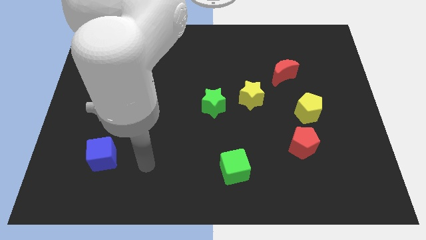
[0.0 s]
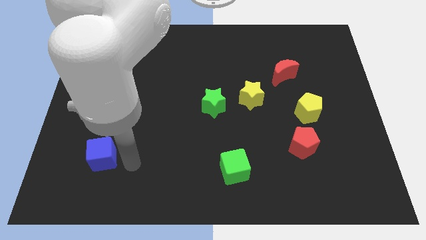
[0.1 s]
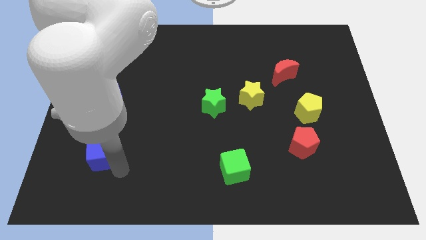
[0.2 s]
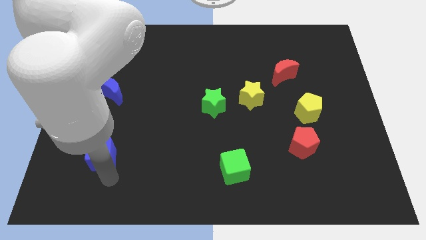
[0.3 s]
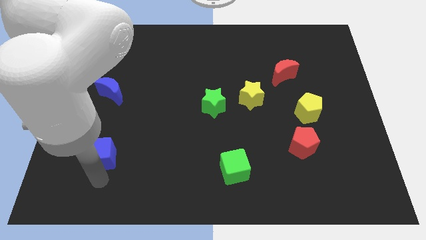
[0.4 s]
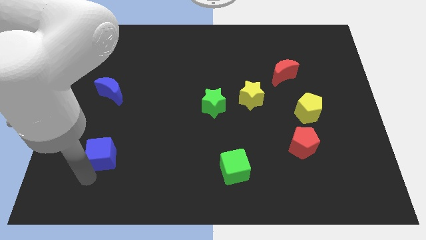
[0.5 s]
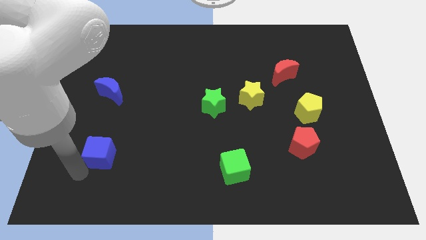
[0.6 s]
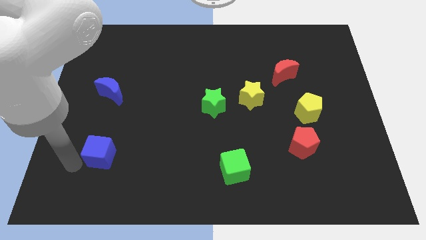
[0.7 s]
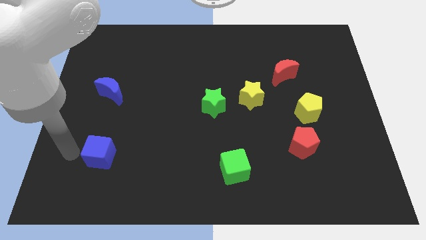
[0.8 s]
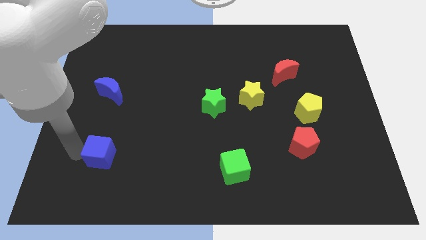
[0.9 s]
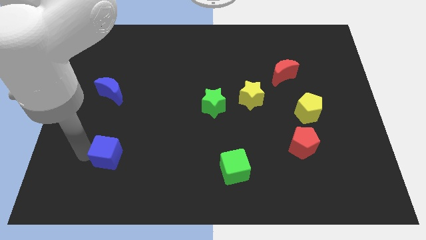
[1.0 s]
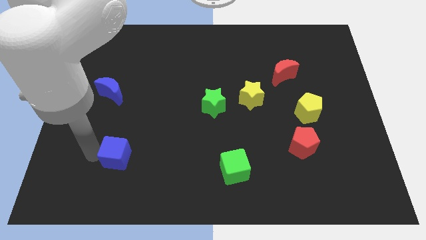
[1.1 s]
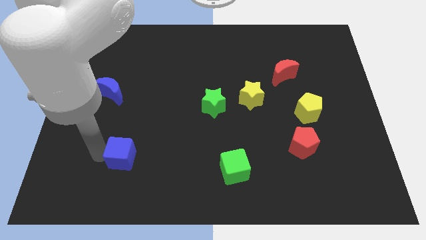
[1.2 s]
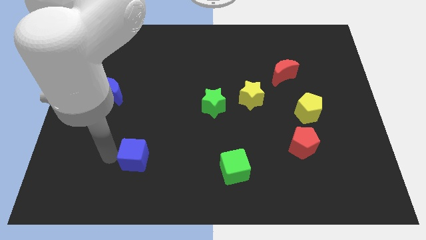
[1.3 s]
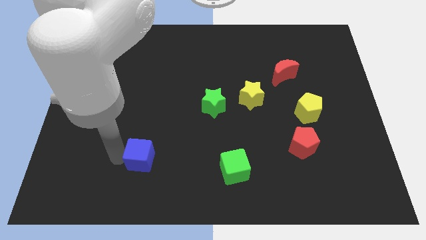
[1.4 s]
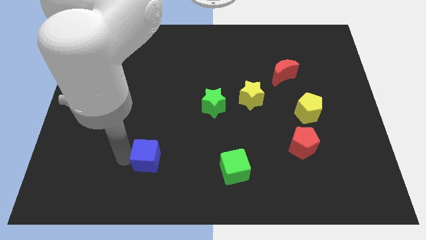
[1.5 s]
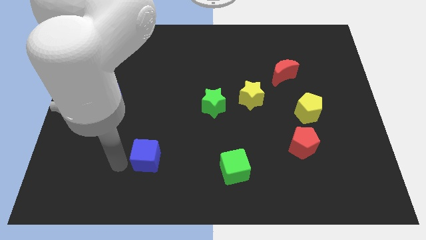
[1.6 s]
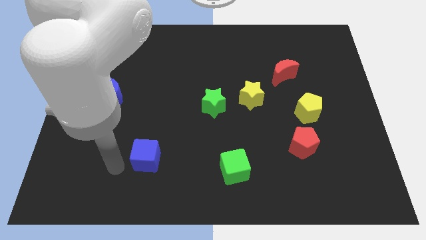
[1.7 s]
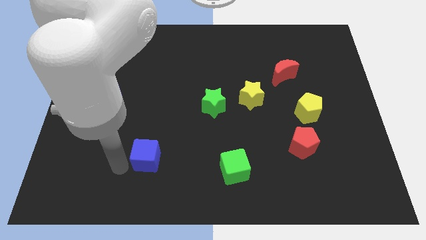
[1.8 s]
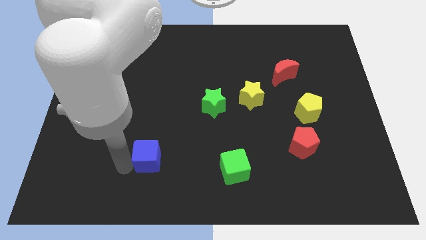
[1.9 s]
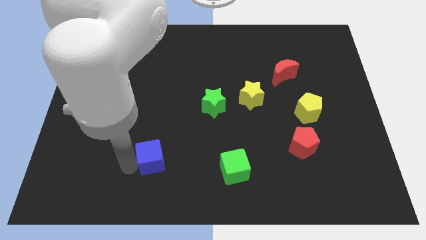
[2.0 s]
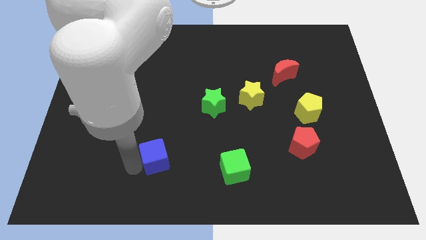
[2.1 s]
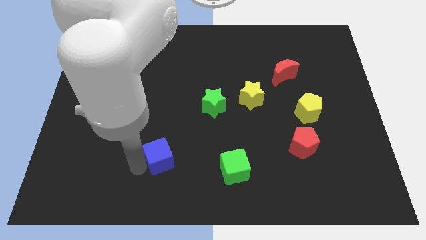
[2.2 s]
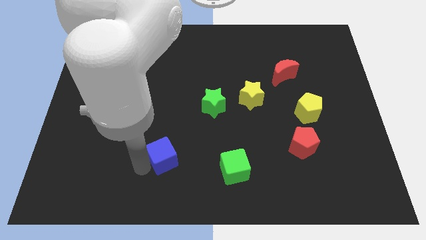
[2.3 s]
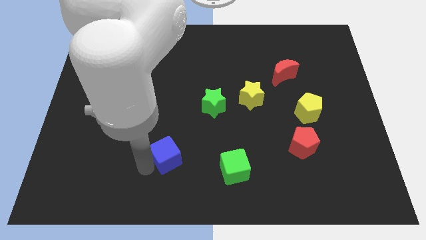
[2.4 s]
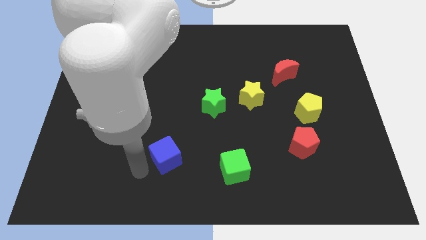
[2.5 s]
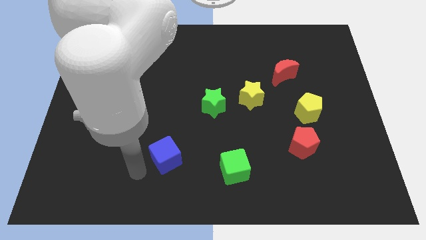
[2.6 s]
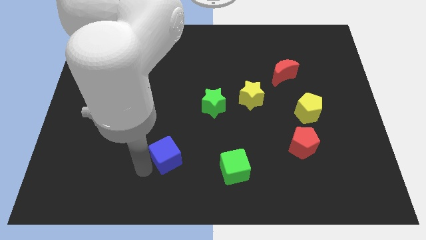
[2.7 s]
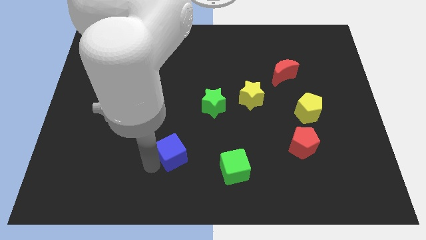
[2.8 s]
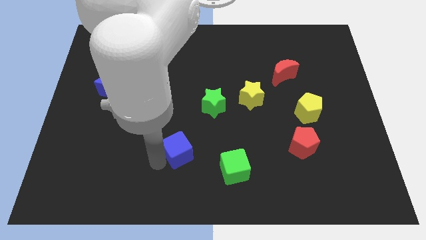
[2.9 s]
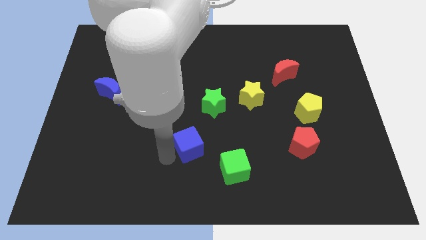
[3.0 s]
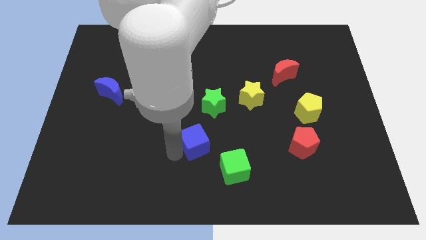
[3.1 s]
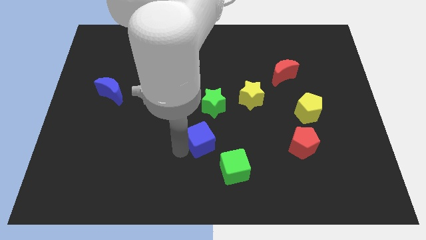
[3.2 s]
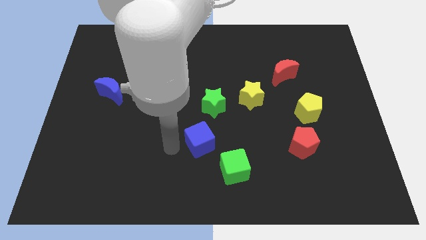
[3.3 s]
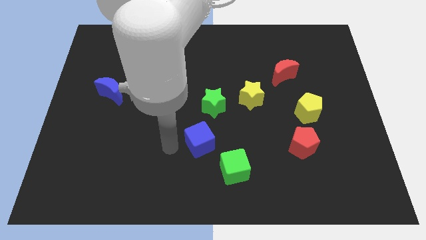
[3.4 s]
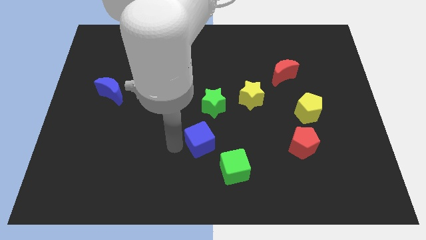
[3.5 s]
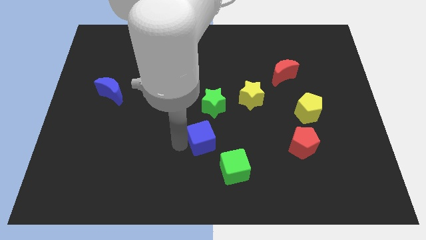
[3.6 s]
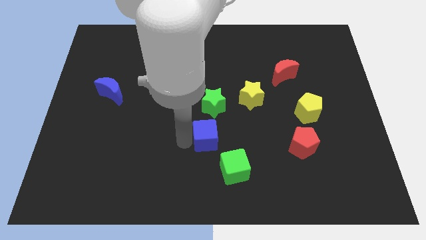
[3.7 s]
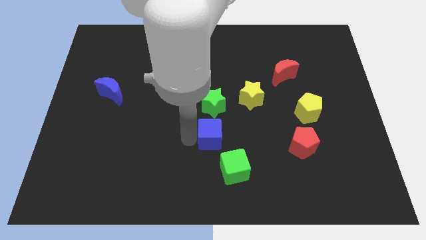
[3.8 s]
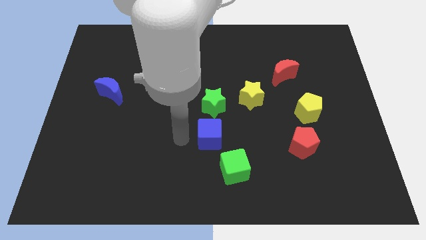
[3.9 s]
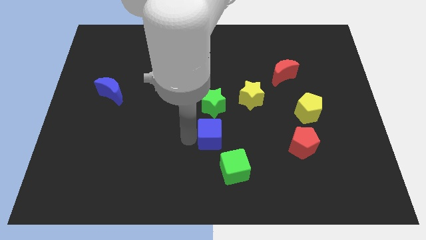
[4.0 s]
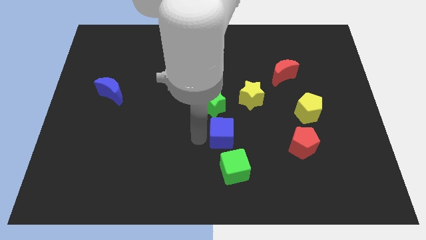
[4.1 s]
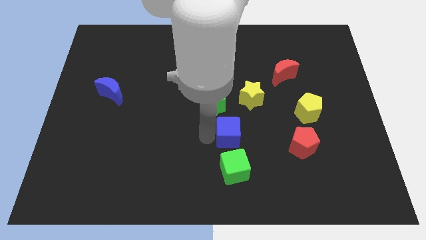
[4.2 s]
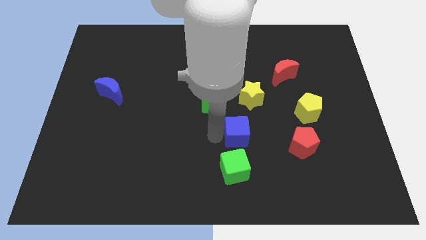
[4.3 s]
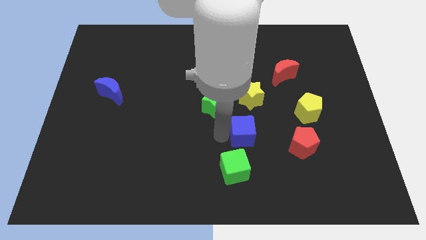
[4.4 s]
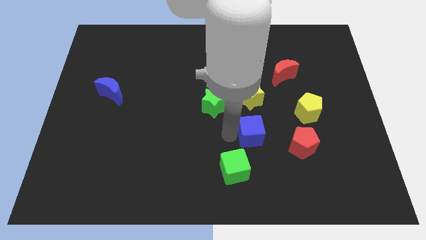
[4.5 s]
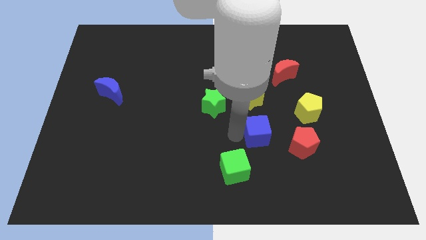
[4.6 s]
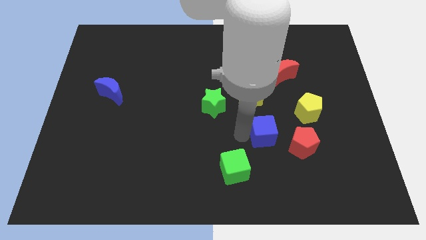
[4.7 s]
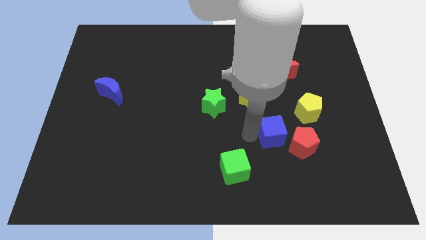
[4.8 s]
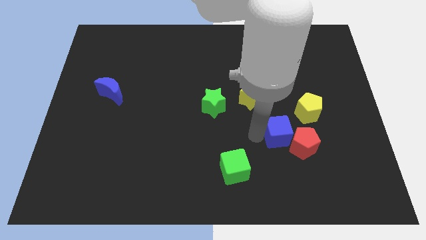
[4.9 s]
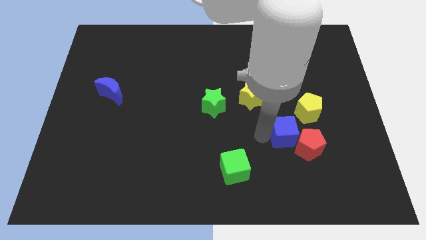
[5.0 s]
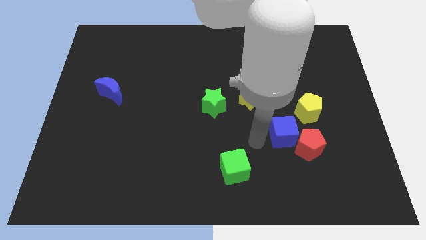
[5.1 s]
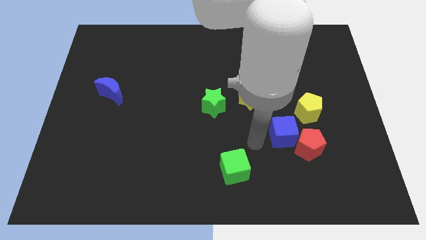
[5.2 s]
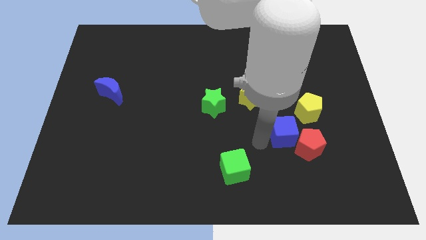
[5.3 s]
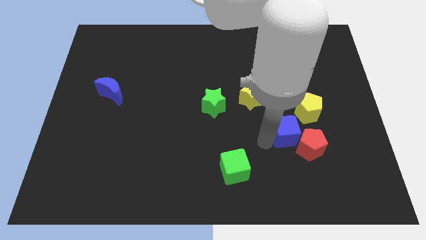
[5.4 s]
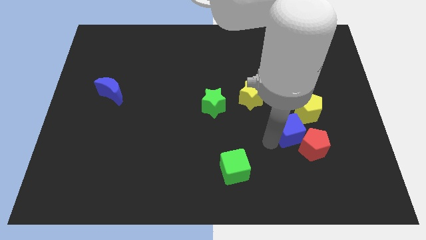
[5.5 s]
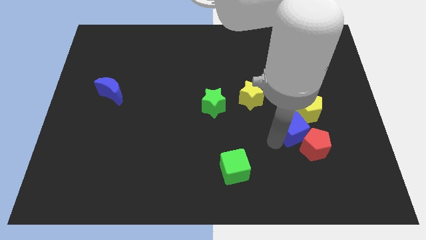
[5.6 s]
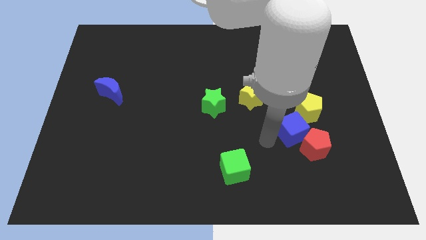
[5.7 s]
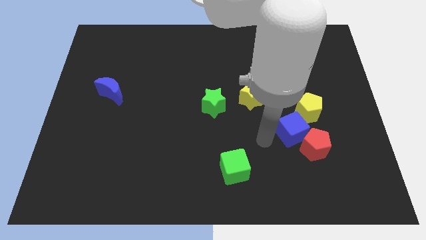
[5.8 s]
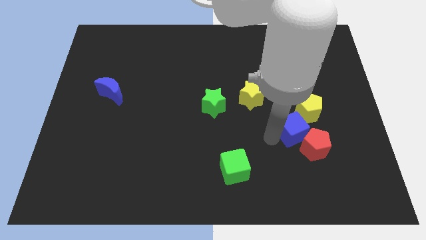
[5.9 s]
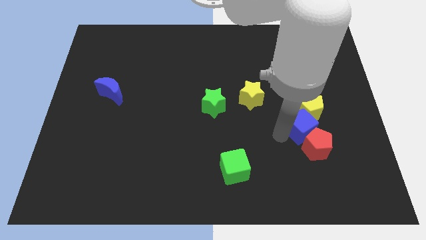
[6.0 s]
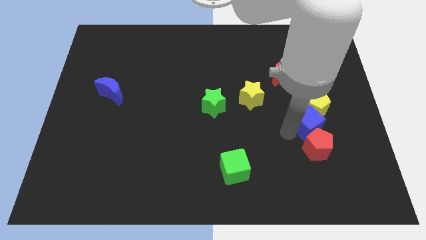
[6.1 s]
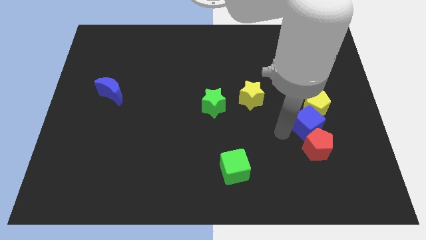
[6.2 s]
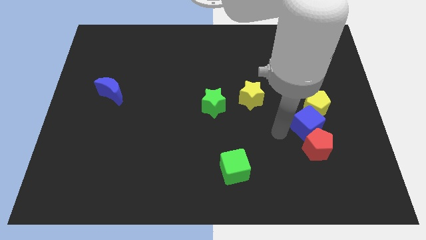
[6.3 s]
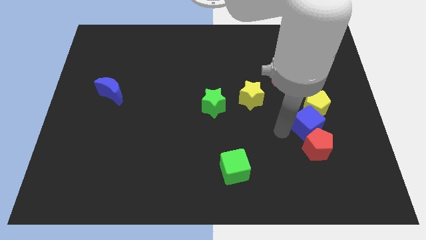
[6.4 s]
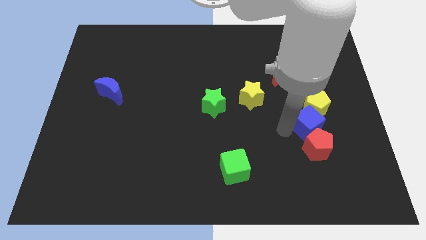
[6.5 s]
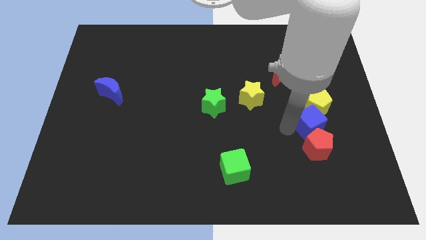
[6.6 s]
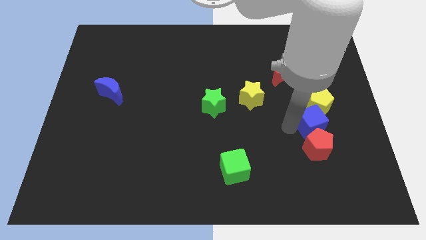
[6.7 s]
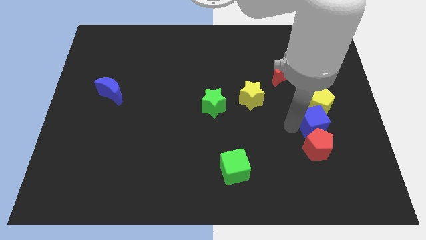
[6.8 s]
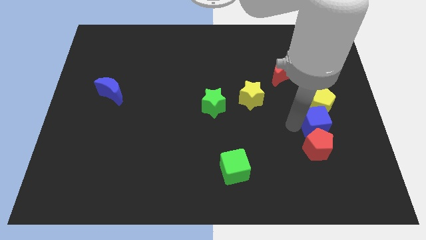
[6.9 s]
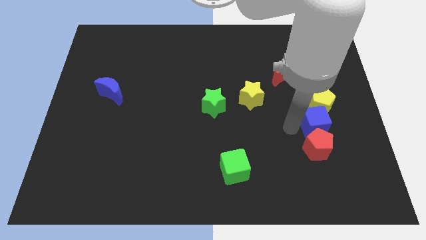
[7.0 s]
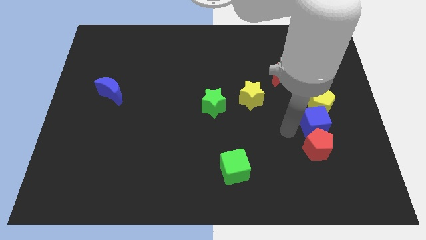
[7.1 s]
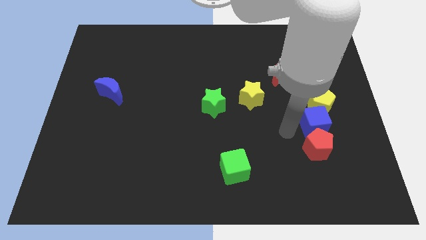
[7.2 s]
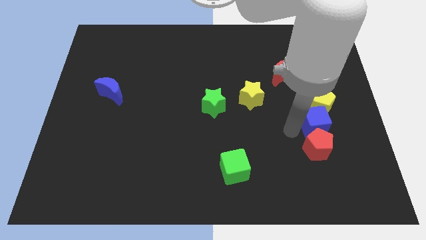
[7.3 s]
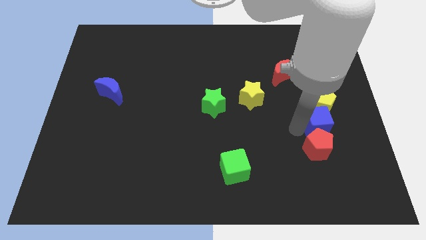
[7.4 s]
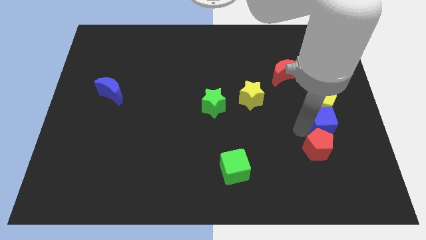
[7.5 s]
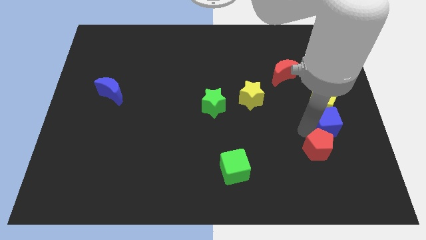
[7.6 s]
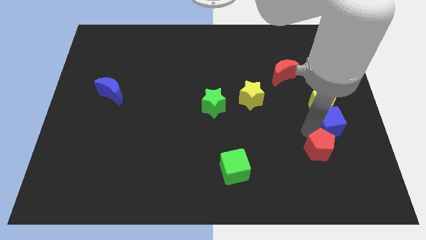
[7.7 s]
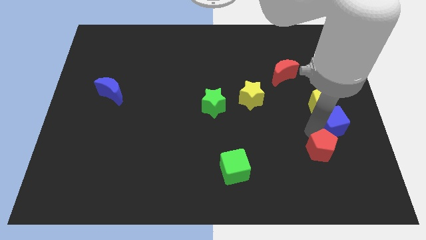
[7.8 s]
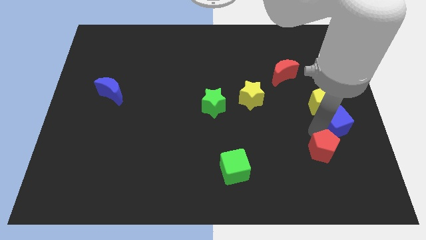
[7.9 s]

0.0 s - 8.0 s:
slide the blue cube to the center right

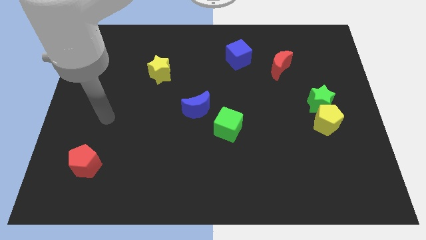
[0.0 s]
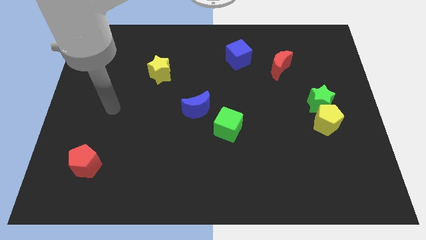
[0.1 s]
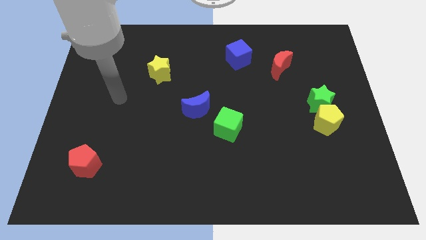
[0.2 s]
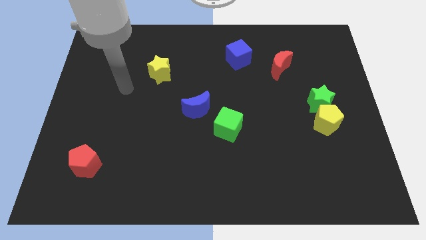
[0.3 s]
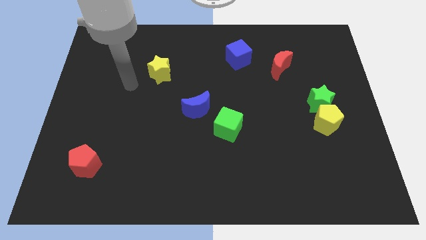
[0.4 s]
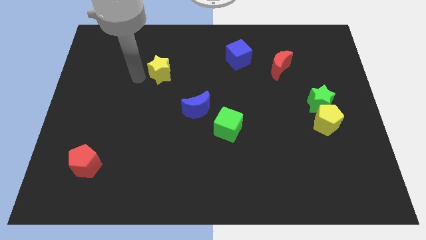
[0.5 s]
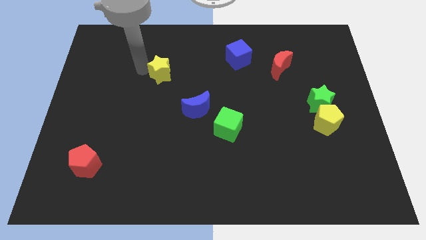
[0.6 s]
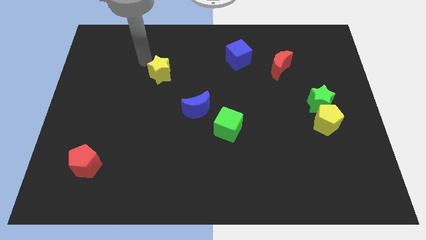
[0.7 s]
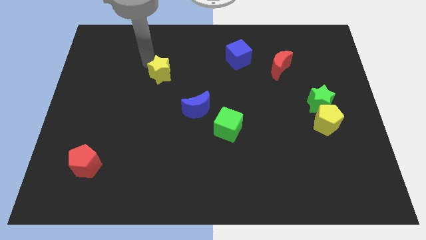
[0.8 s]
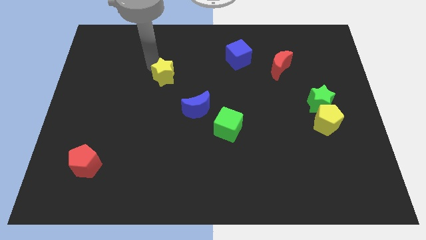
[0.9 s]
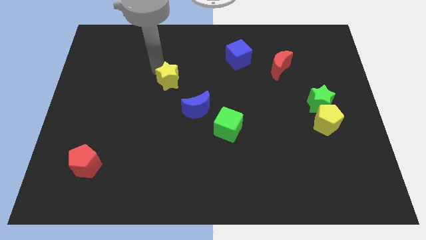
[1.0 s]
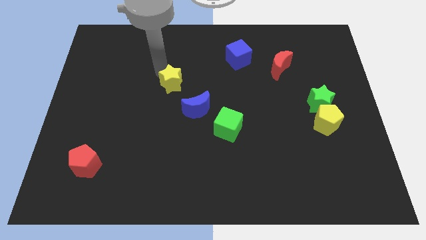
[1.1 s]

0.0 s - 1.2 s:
put the yellow star to the middle
